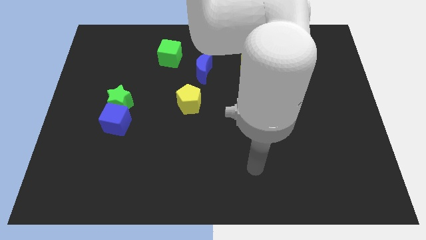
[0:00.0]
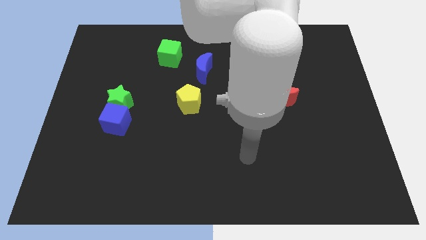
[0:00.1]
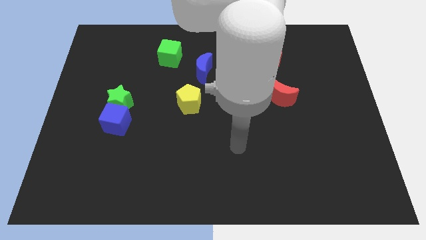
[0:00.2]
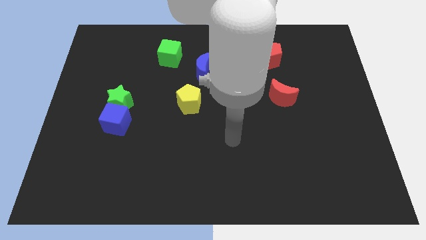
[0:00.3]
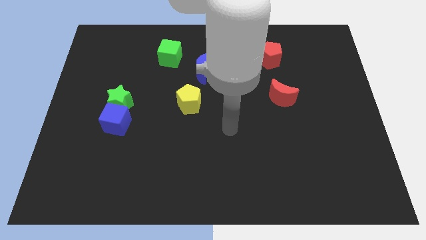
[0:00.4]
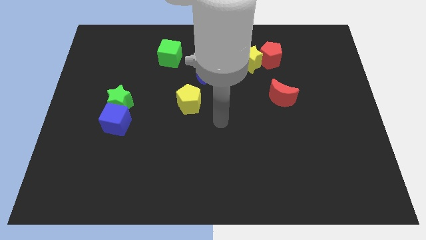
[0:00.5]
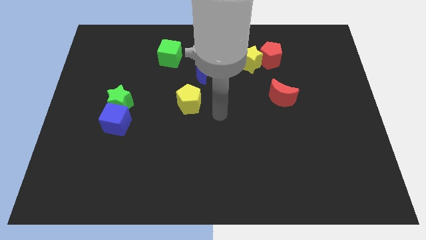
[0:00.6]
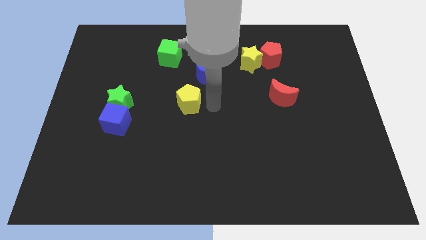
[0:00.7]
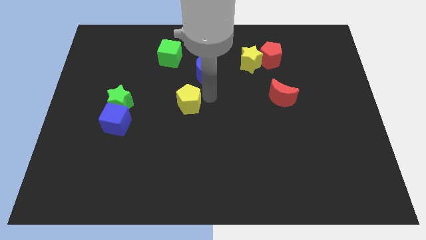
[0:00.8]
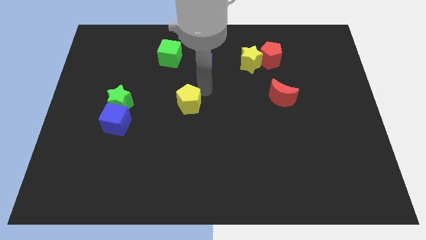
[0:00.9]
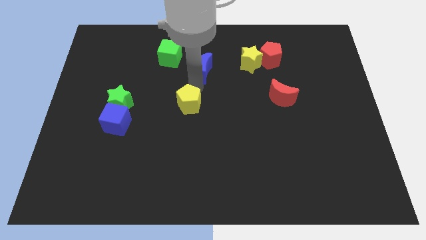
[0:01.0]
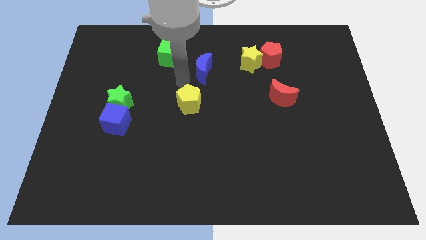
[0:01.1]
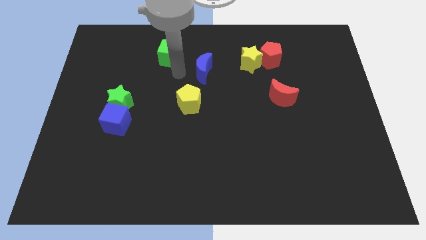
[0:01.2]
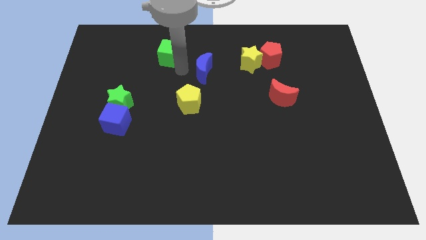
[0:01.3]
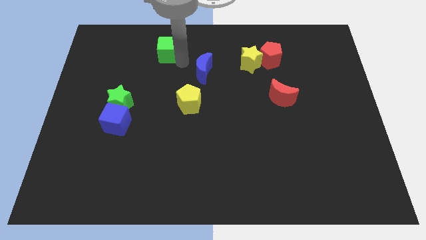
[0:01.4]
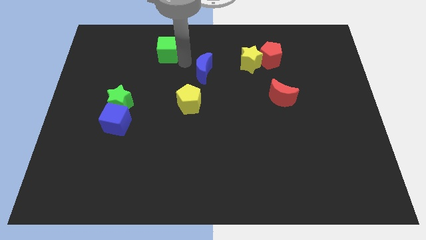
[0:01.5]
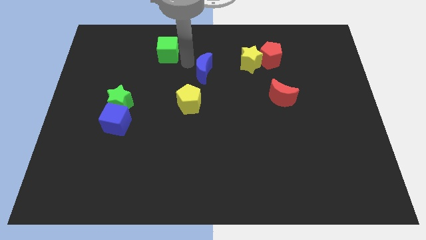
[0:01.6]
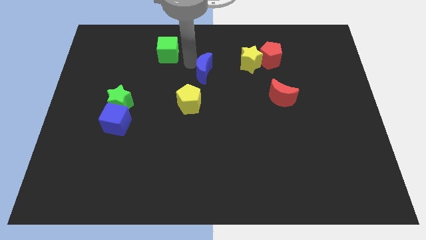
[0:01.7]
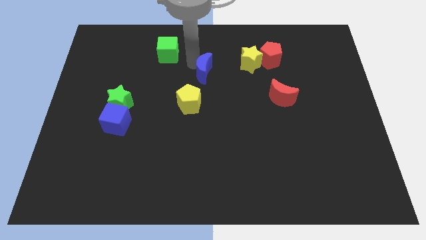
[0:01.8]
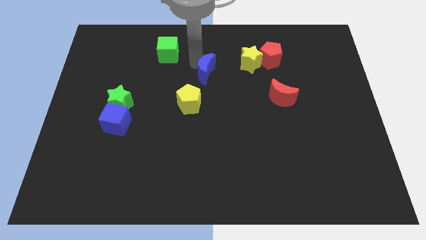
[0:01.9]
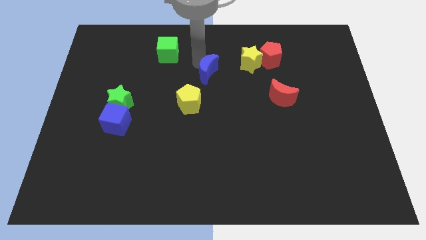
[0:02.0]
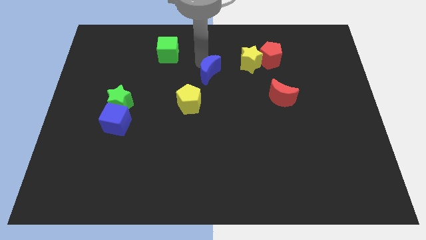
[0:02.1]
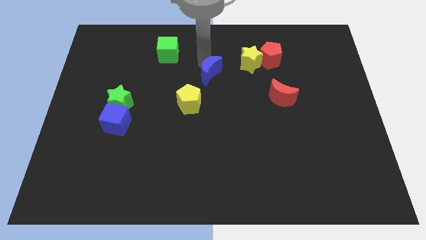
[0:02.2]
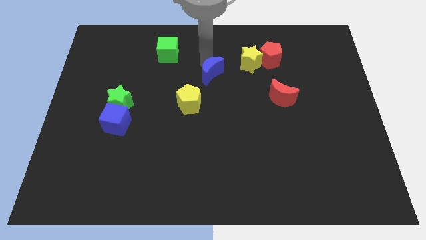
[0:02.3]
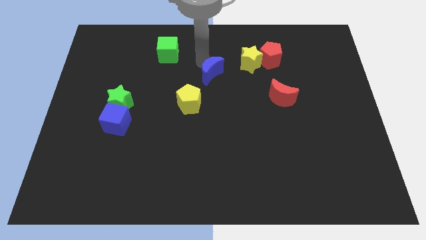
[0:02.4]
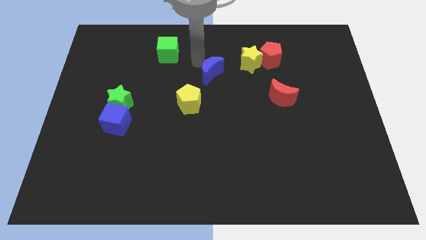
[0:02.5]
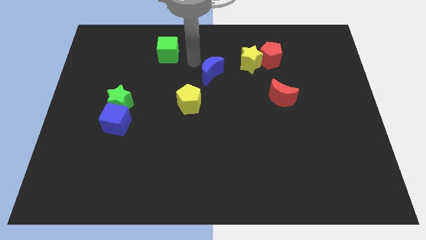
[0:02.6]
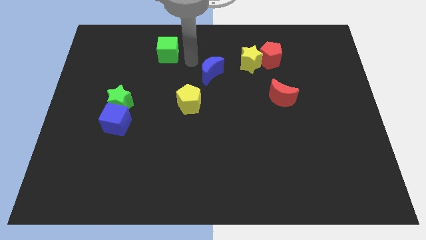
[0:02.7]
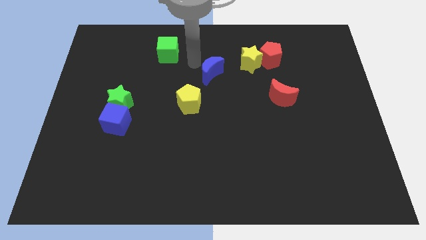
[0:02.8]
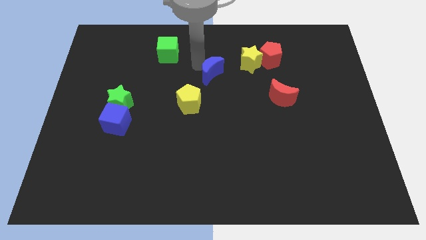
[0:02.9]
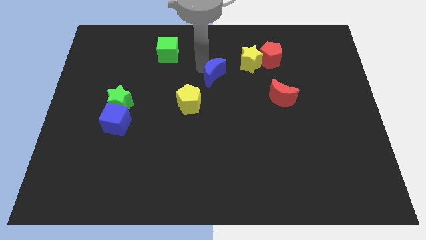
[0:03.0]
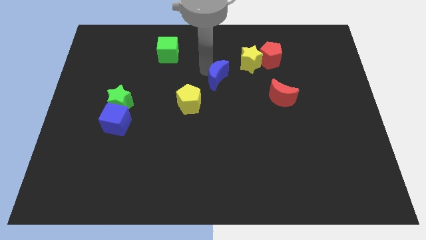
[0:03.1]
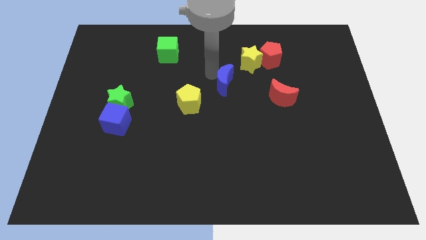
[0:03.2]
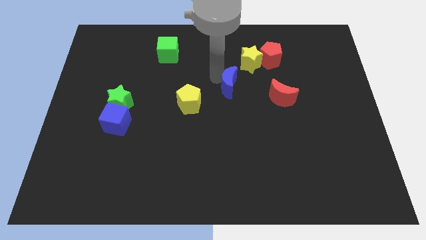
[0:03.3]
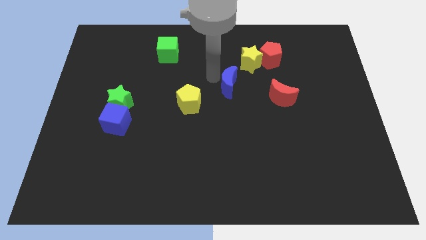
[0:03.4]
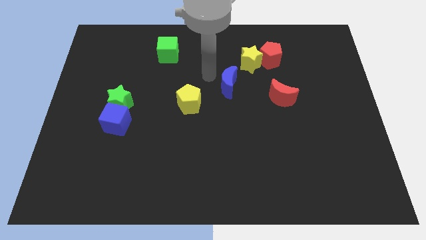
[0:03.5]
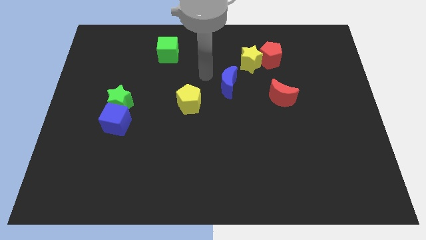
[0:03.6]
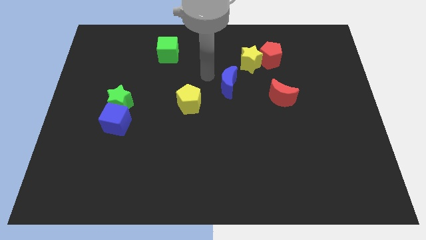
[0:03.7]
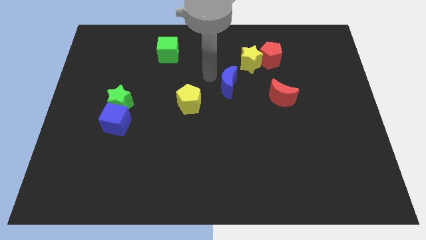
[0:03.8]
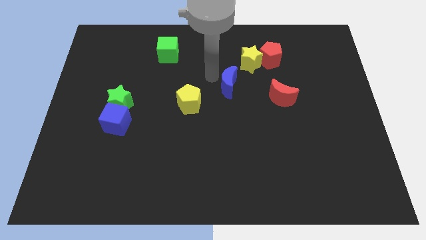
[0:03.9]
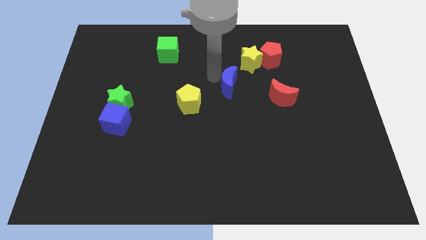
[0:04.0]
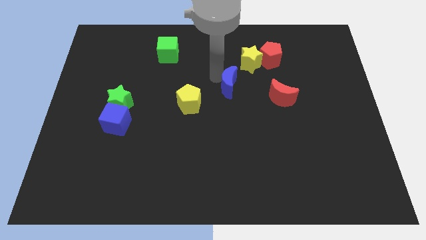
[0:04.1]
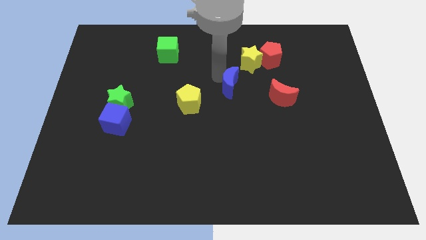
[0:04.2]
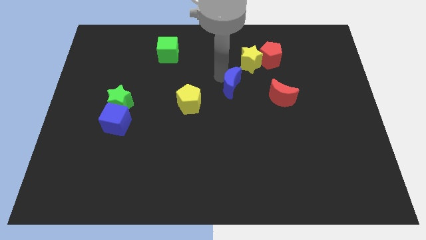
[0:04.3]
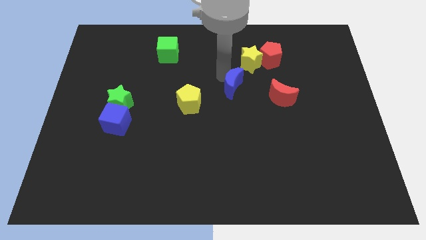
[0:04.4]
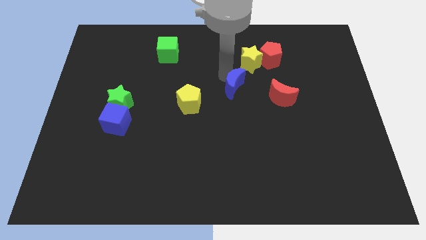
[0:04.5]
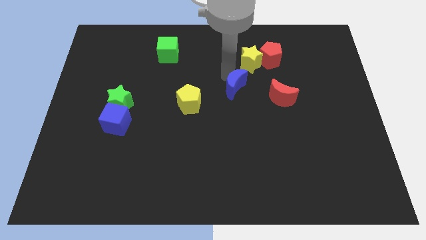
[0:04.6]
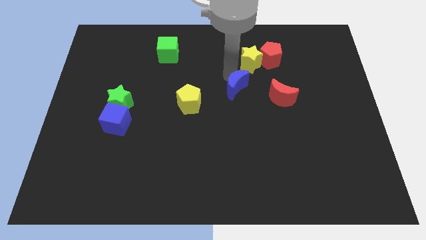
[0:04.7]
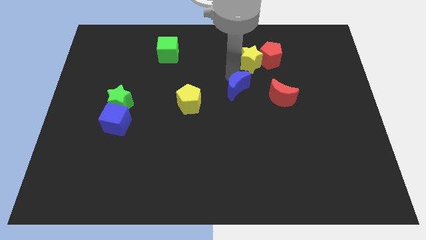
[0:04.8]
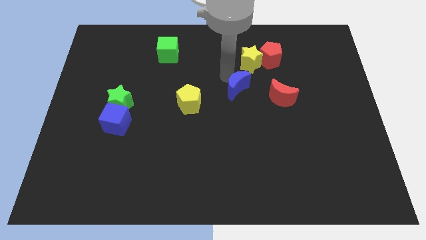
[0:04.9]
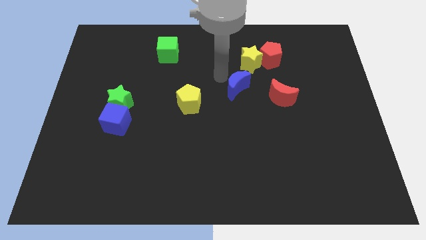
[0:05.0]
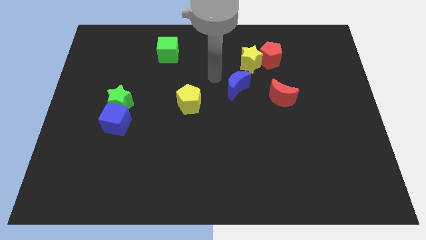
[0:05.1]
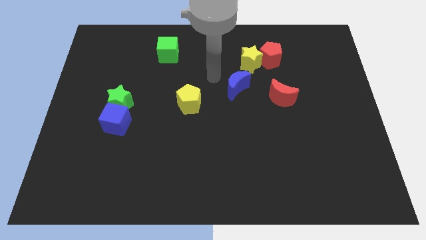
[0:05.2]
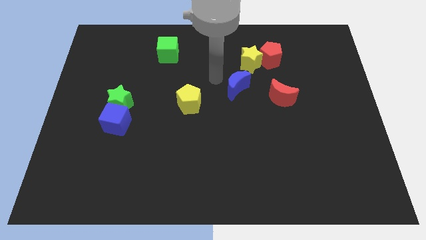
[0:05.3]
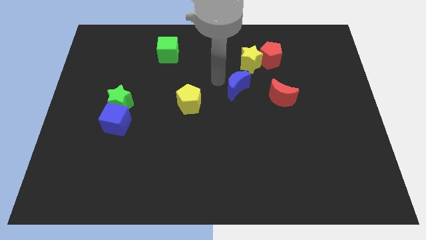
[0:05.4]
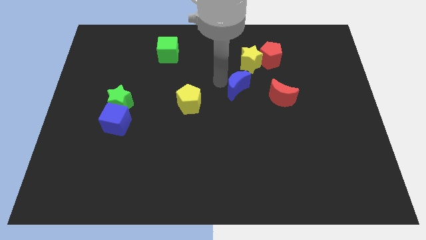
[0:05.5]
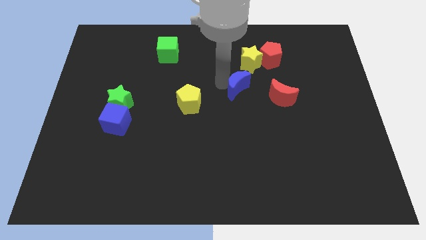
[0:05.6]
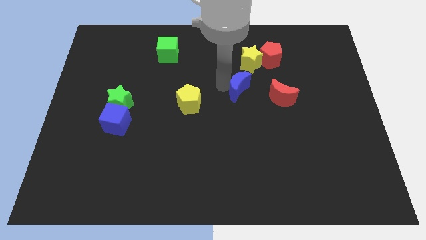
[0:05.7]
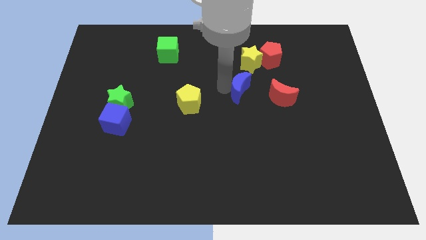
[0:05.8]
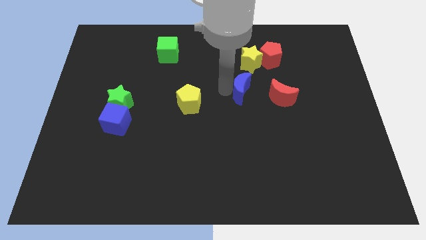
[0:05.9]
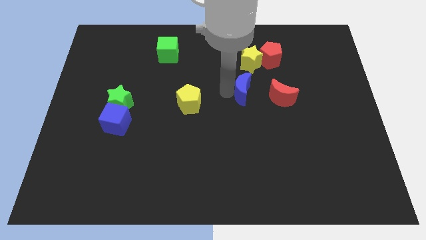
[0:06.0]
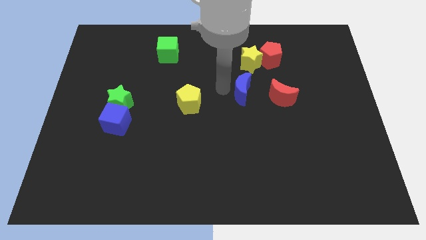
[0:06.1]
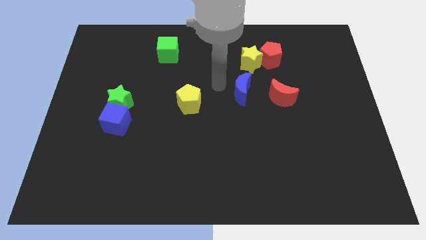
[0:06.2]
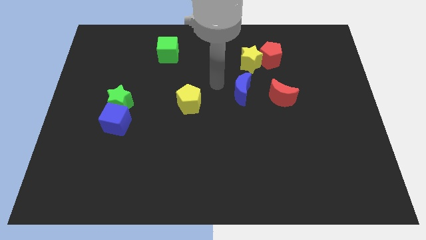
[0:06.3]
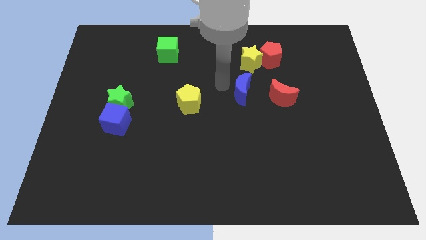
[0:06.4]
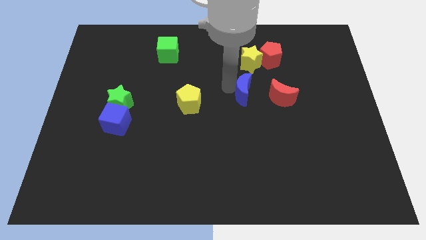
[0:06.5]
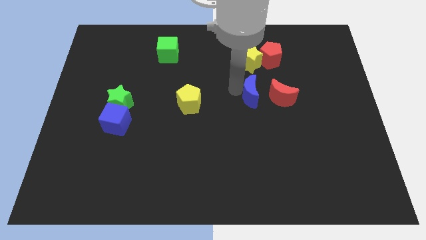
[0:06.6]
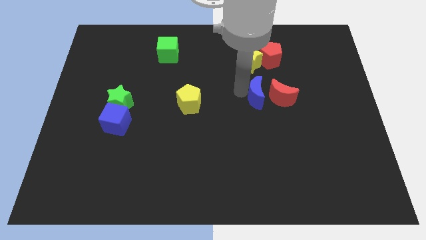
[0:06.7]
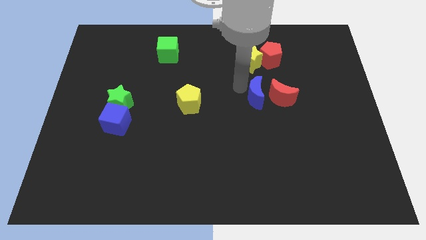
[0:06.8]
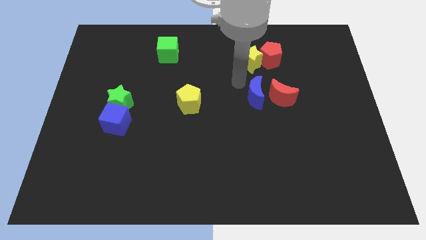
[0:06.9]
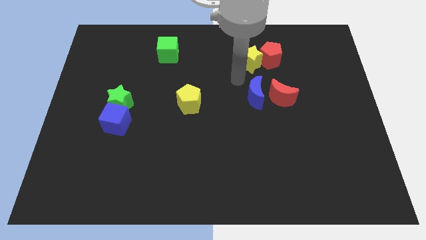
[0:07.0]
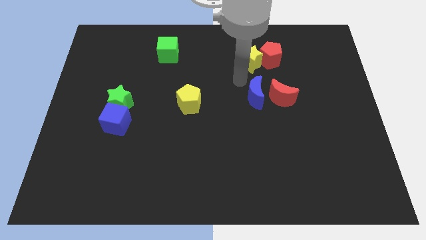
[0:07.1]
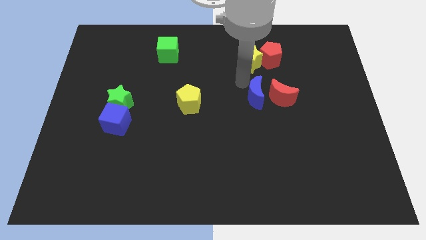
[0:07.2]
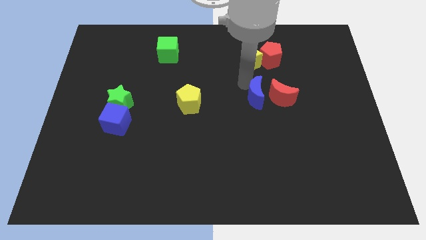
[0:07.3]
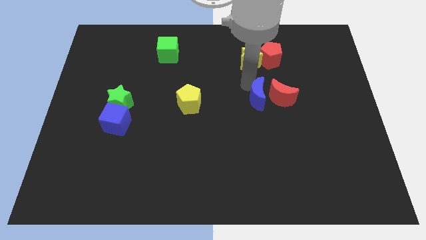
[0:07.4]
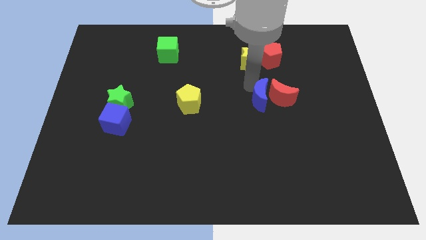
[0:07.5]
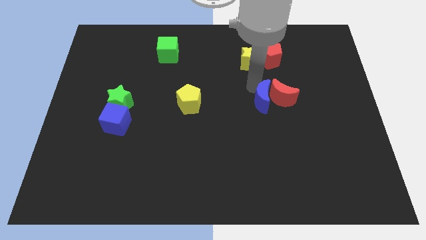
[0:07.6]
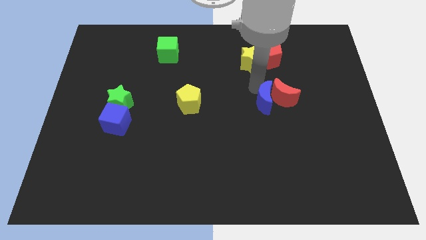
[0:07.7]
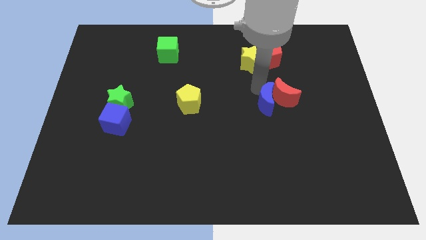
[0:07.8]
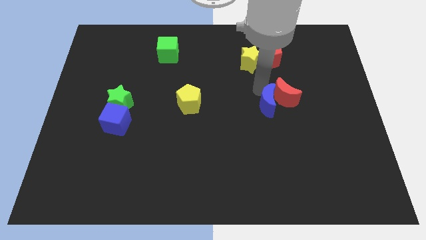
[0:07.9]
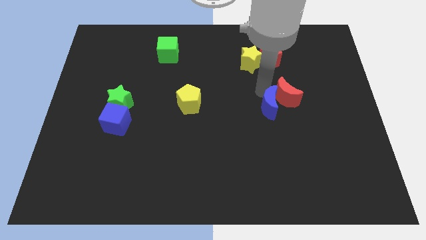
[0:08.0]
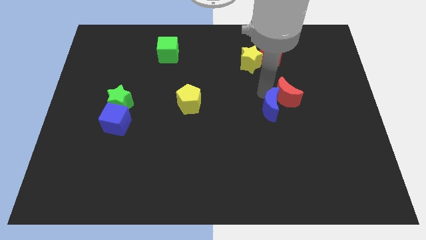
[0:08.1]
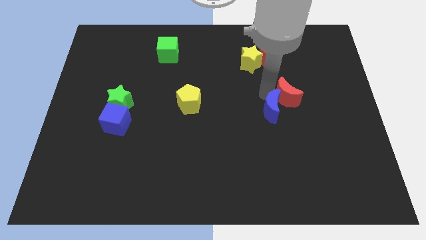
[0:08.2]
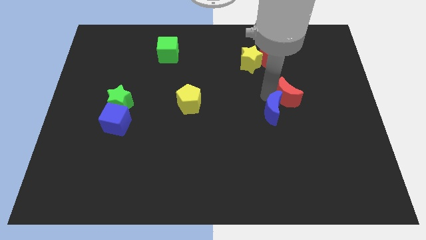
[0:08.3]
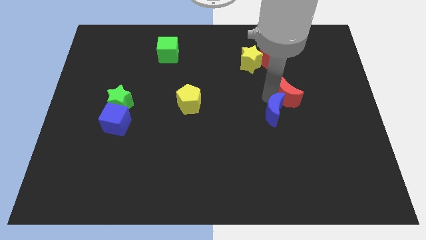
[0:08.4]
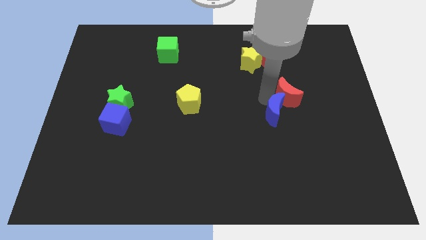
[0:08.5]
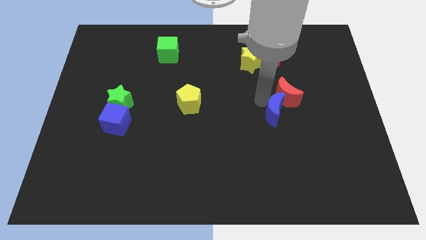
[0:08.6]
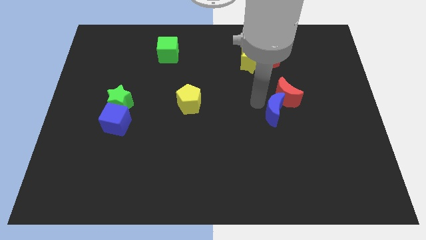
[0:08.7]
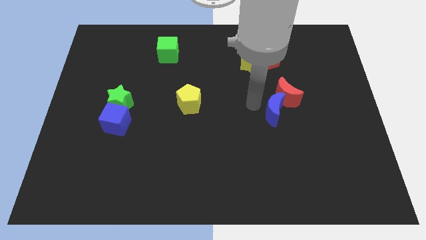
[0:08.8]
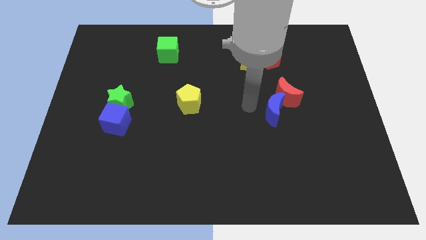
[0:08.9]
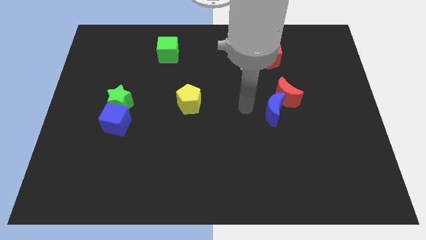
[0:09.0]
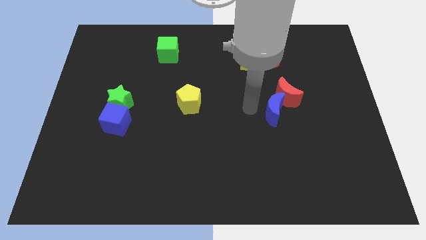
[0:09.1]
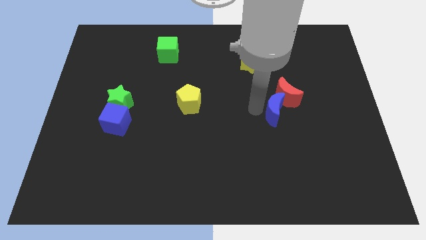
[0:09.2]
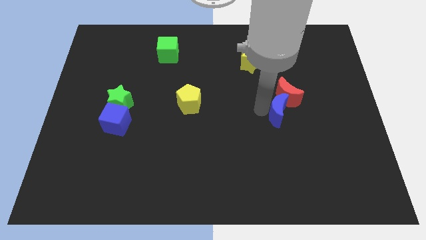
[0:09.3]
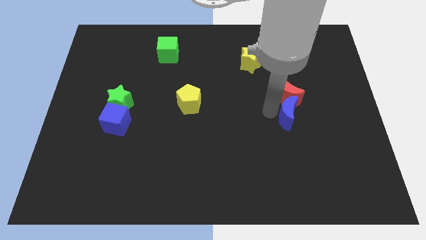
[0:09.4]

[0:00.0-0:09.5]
push the blue moon to the bottom right side of the red moon
